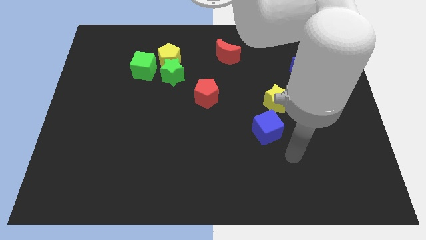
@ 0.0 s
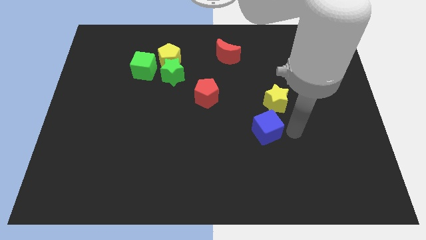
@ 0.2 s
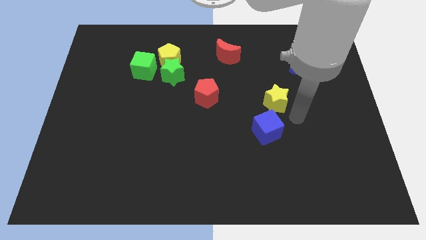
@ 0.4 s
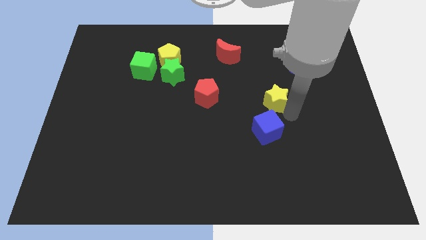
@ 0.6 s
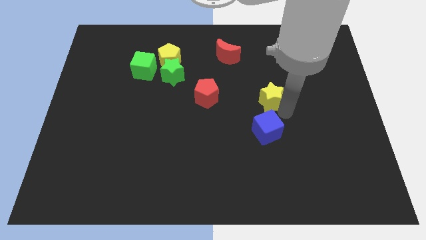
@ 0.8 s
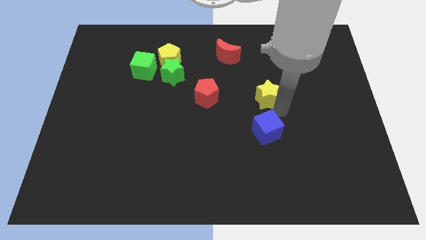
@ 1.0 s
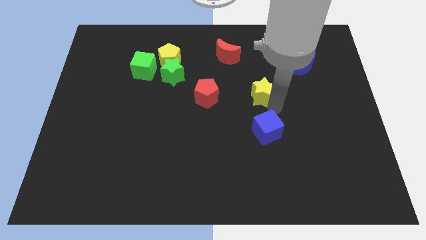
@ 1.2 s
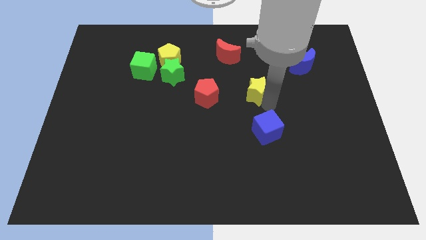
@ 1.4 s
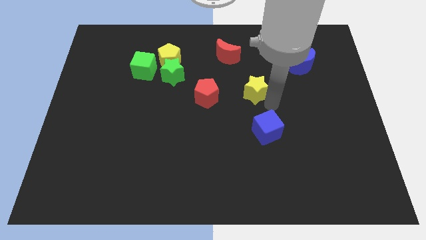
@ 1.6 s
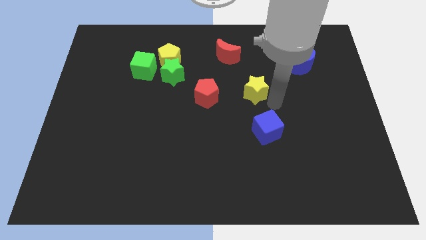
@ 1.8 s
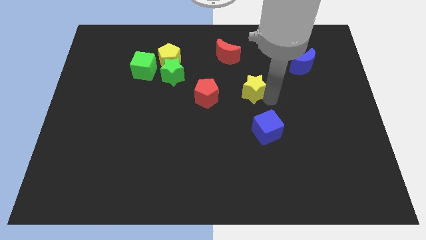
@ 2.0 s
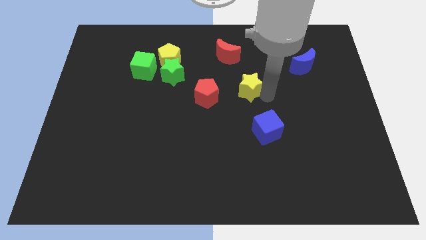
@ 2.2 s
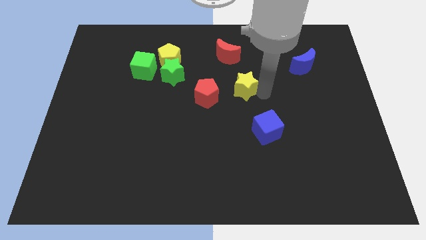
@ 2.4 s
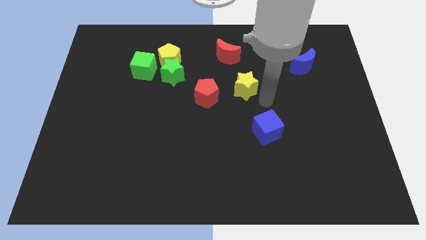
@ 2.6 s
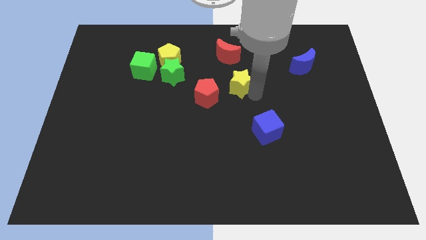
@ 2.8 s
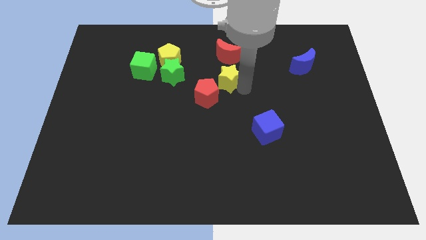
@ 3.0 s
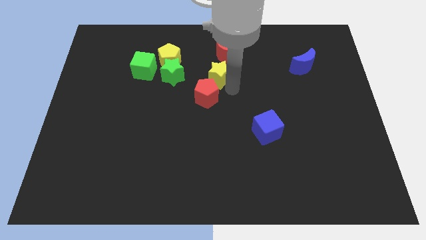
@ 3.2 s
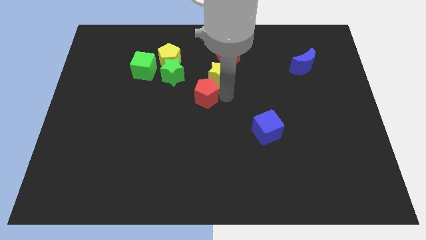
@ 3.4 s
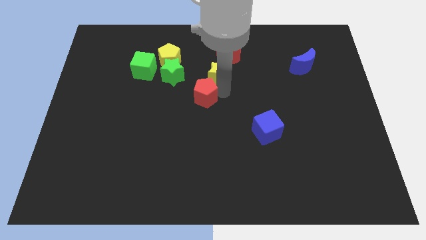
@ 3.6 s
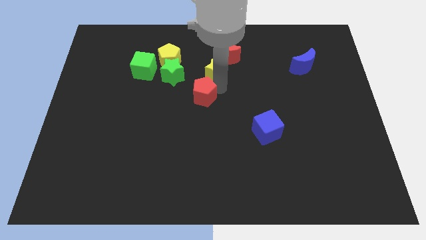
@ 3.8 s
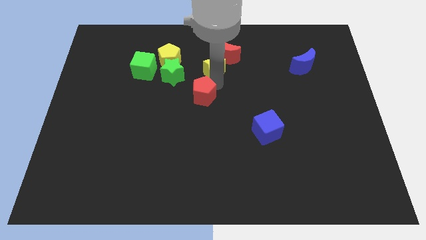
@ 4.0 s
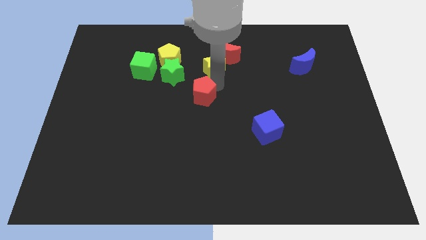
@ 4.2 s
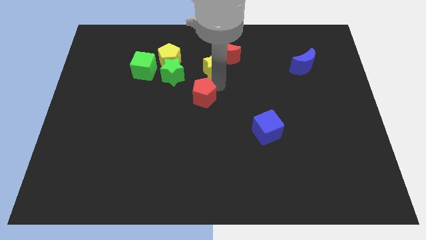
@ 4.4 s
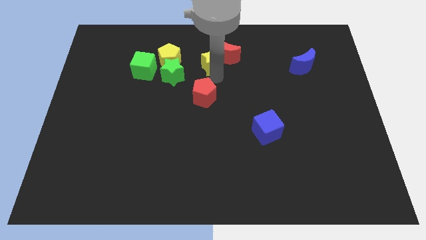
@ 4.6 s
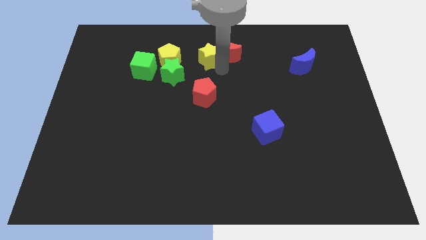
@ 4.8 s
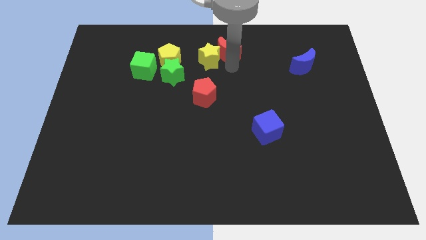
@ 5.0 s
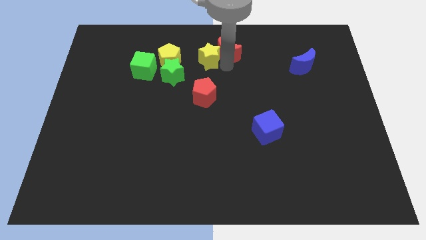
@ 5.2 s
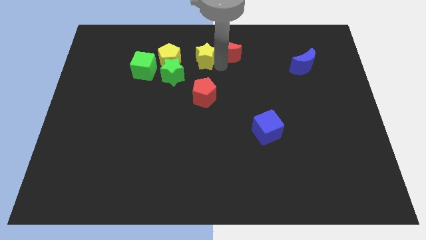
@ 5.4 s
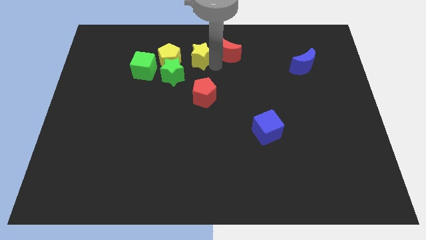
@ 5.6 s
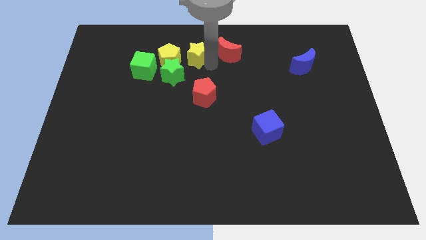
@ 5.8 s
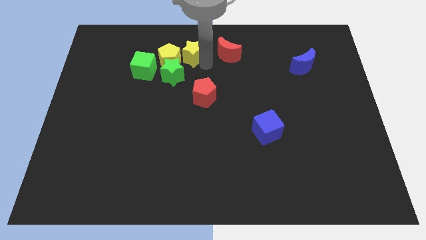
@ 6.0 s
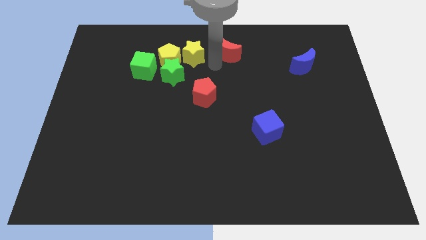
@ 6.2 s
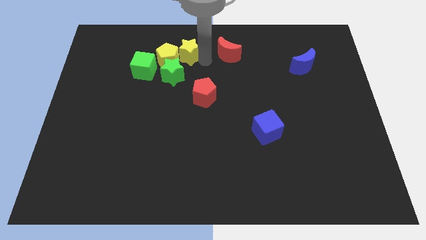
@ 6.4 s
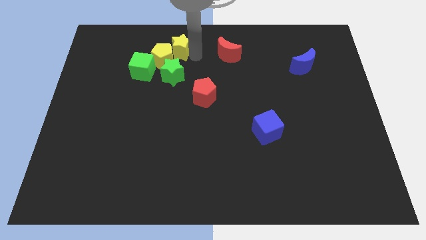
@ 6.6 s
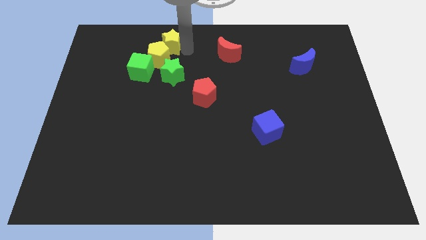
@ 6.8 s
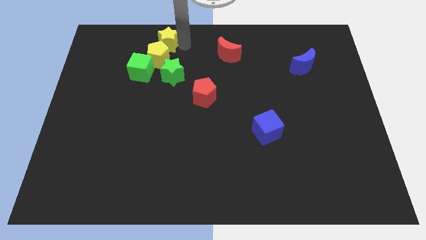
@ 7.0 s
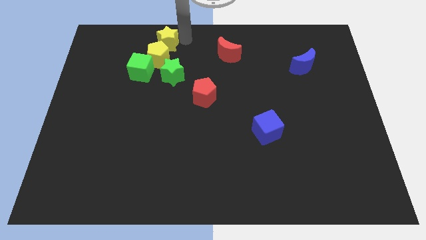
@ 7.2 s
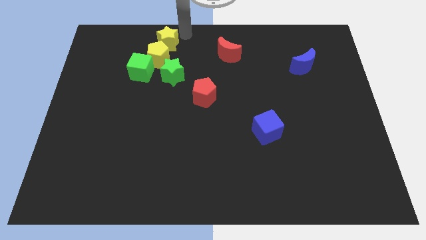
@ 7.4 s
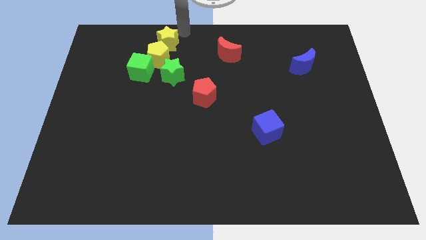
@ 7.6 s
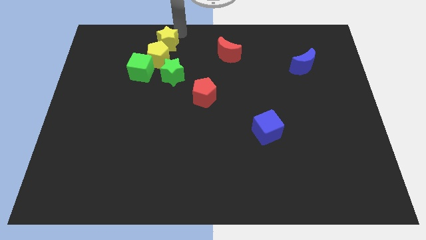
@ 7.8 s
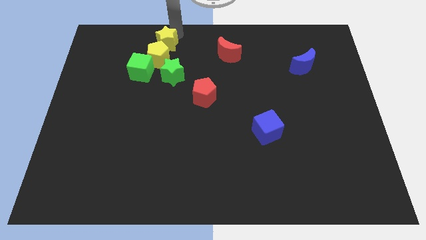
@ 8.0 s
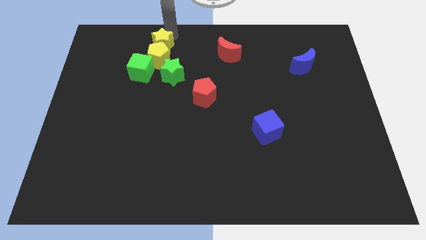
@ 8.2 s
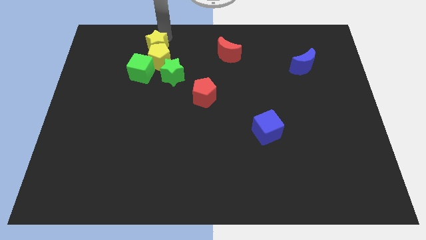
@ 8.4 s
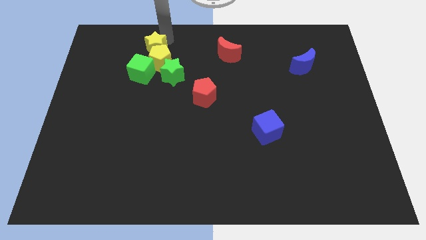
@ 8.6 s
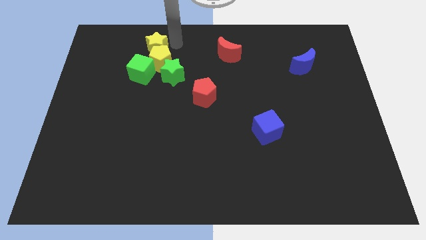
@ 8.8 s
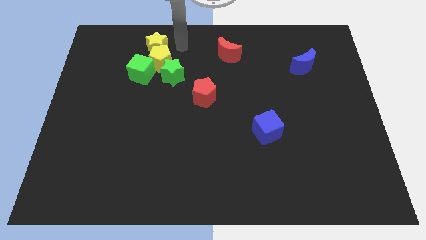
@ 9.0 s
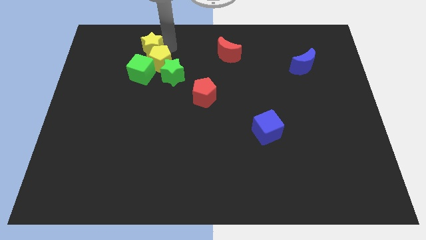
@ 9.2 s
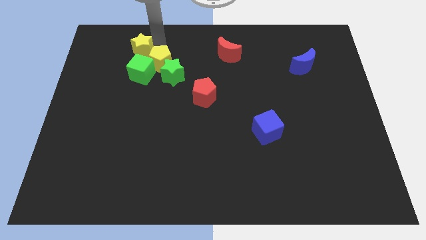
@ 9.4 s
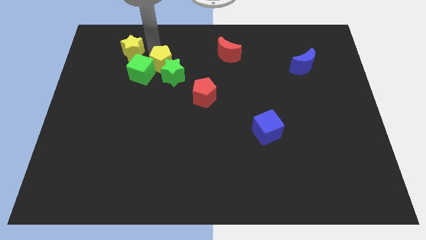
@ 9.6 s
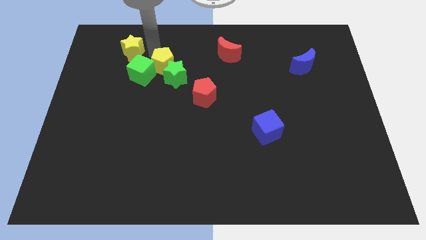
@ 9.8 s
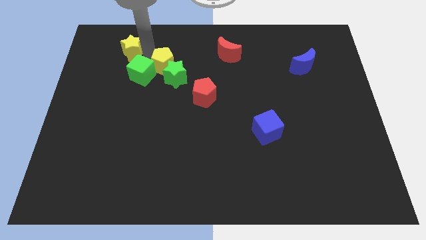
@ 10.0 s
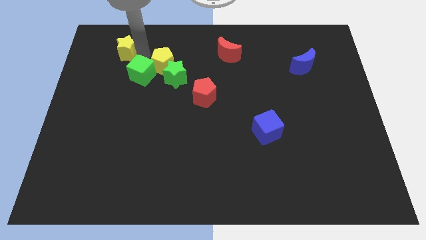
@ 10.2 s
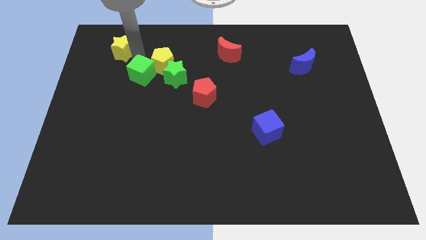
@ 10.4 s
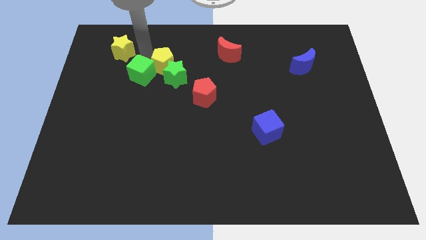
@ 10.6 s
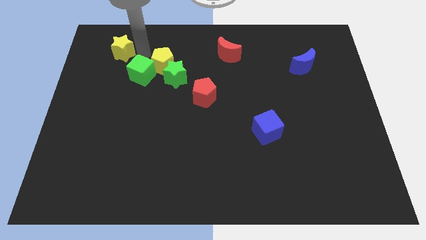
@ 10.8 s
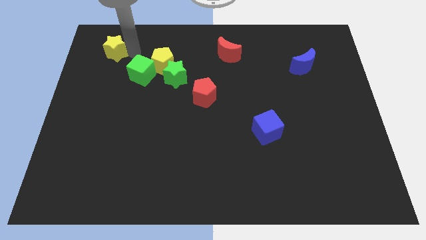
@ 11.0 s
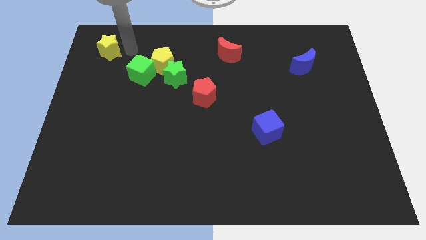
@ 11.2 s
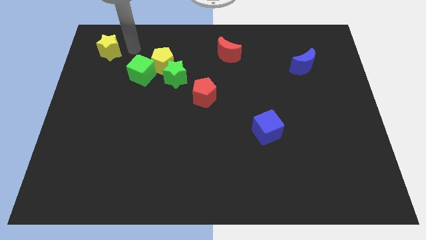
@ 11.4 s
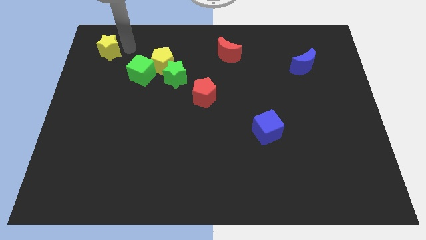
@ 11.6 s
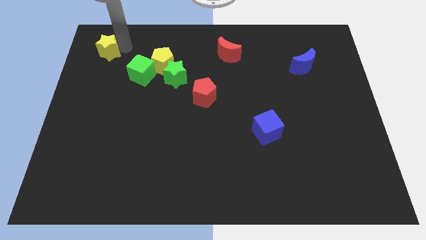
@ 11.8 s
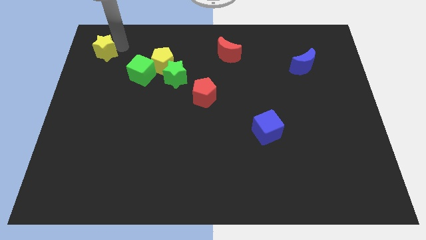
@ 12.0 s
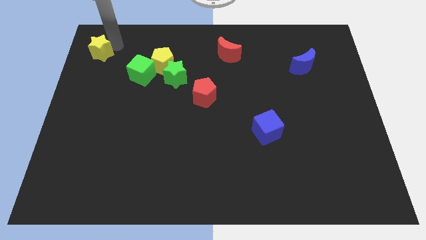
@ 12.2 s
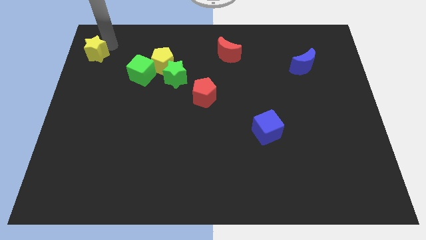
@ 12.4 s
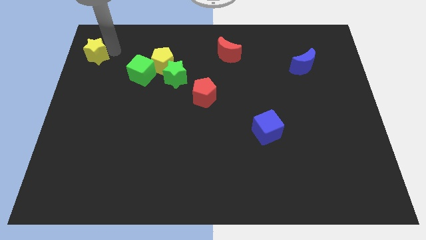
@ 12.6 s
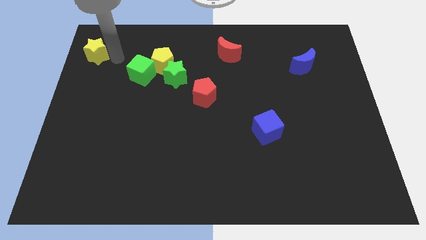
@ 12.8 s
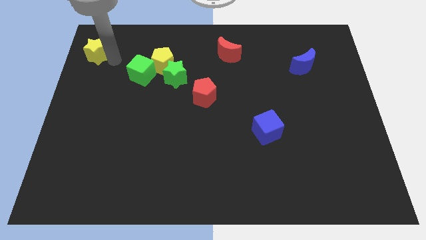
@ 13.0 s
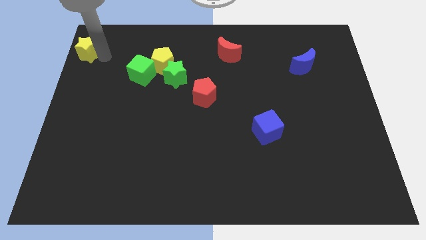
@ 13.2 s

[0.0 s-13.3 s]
slide the yellow star to the top left corner
